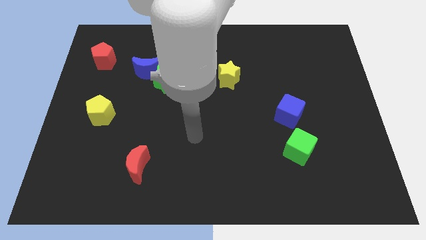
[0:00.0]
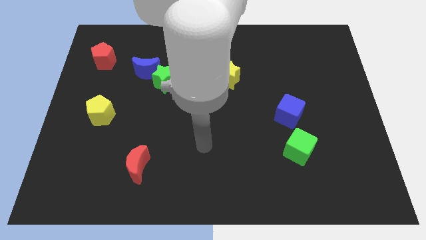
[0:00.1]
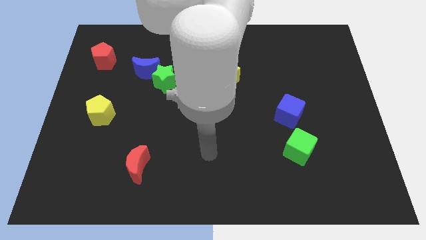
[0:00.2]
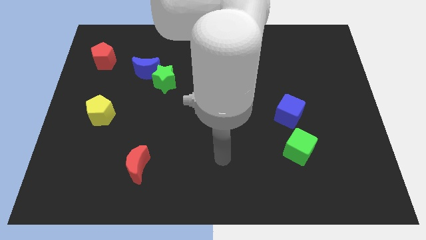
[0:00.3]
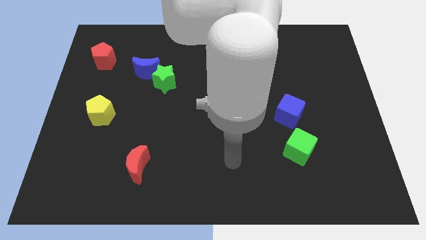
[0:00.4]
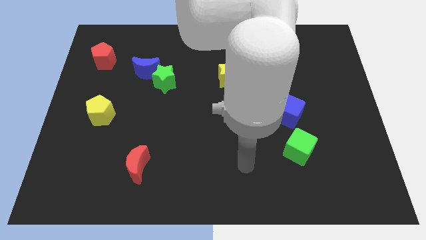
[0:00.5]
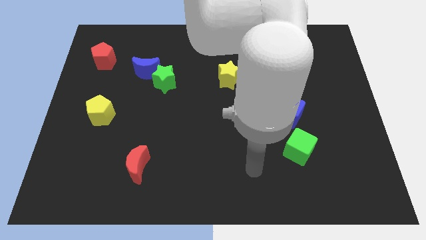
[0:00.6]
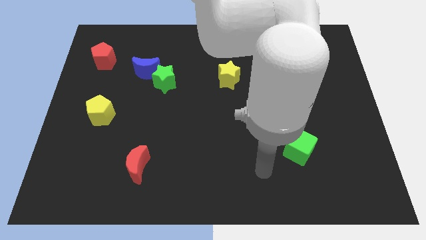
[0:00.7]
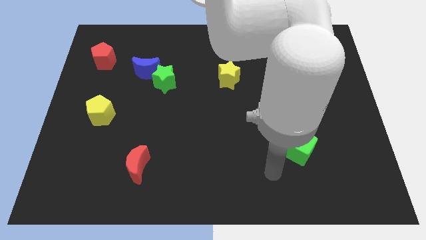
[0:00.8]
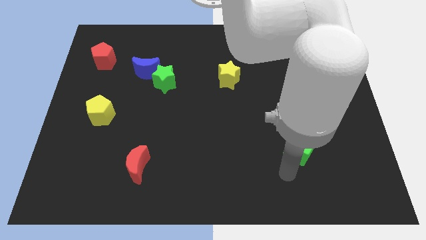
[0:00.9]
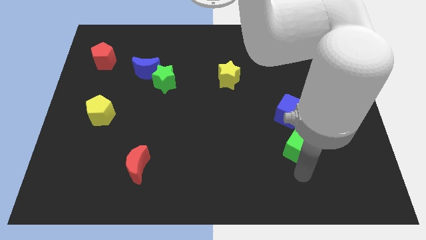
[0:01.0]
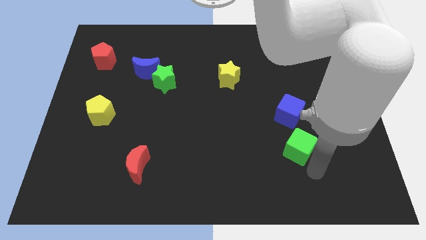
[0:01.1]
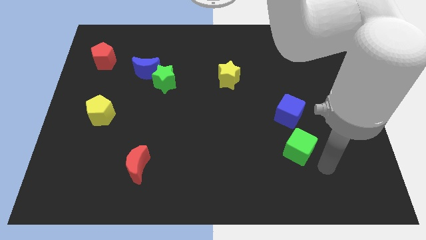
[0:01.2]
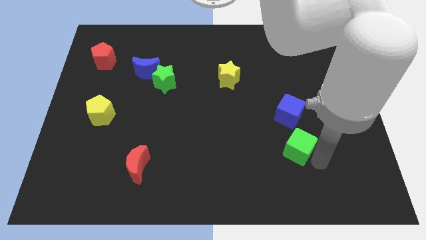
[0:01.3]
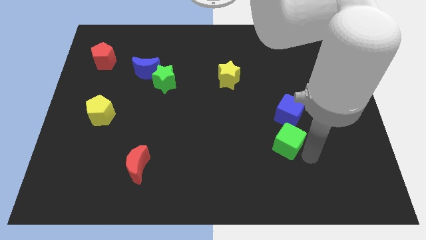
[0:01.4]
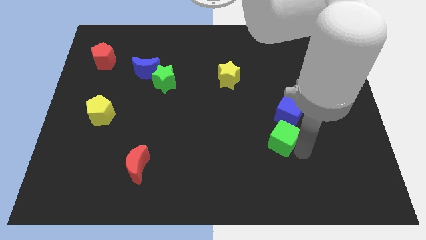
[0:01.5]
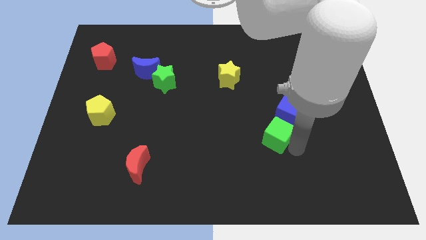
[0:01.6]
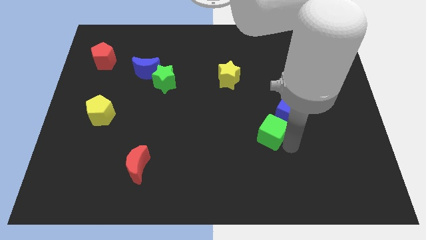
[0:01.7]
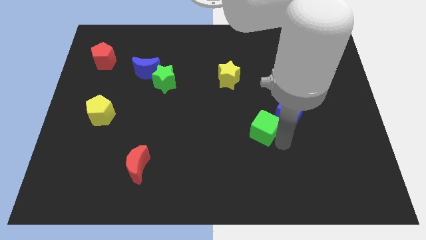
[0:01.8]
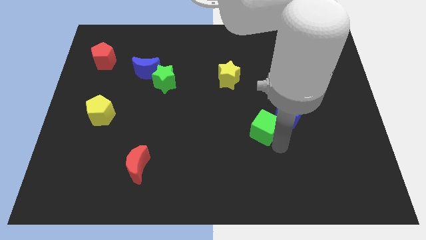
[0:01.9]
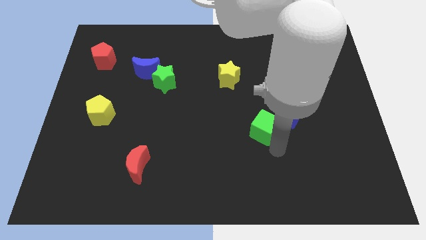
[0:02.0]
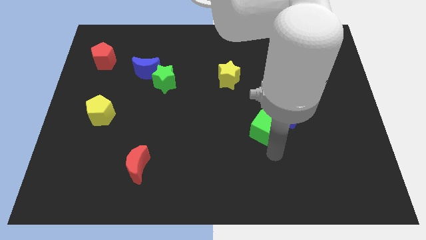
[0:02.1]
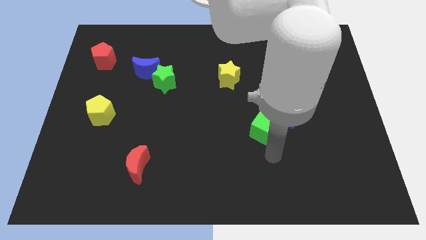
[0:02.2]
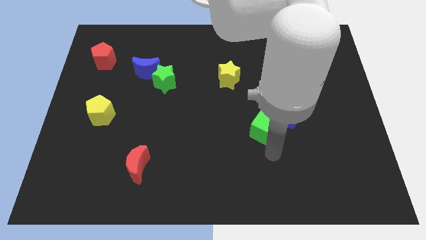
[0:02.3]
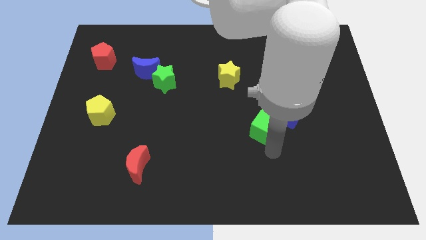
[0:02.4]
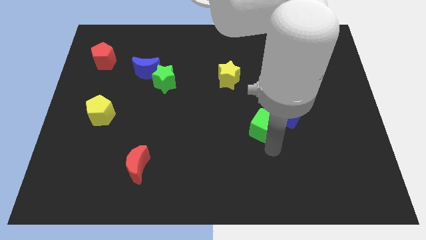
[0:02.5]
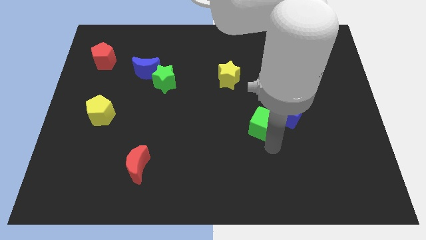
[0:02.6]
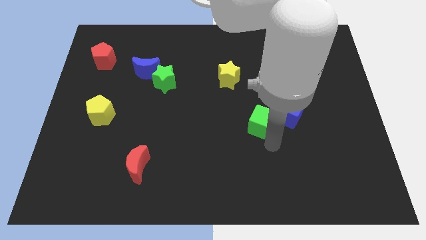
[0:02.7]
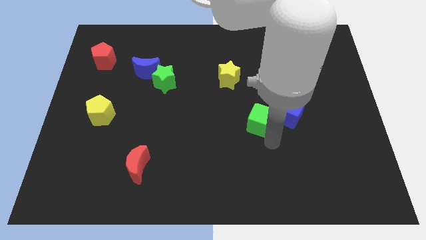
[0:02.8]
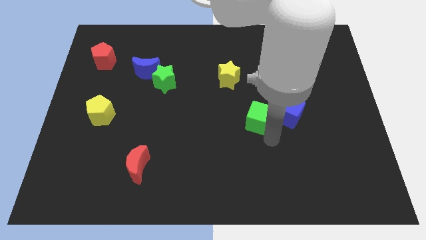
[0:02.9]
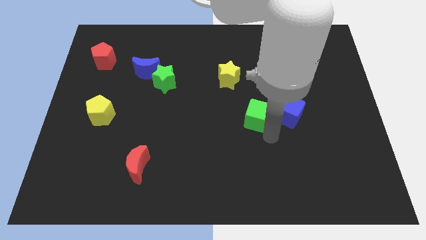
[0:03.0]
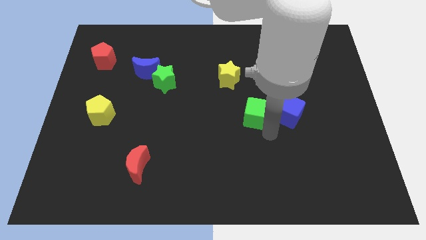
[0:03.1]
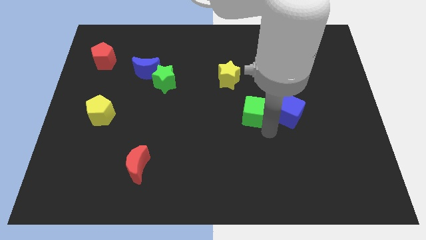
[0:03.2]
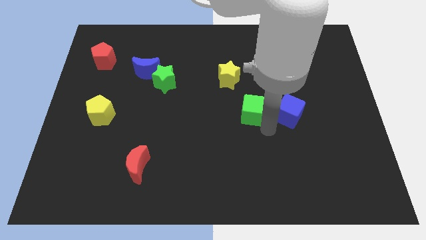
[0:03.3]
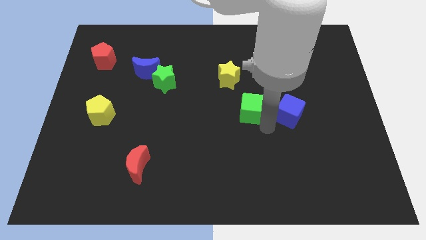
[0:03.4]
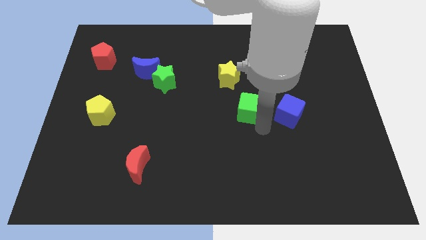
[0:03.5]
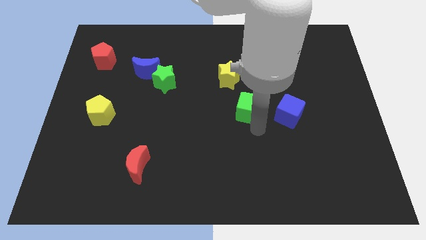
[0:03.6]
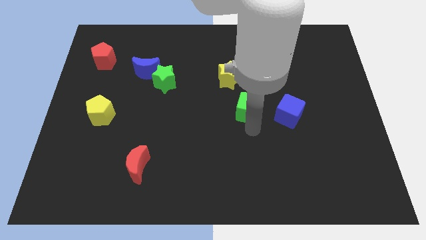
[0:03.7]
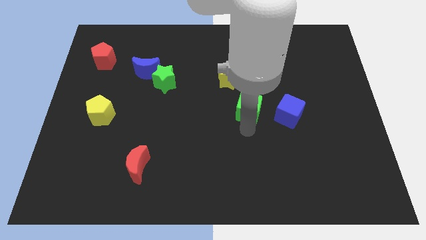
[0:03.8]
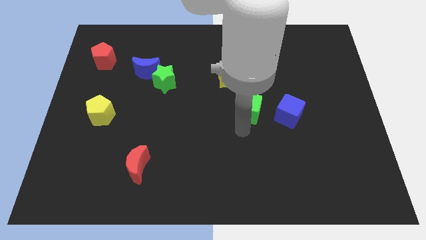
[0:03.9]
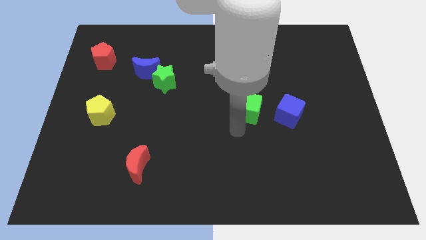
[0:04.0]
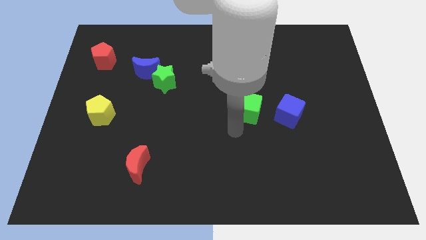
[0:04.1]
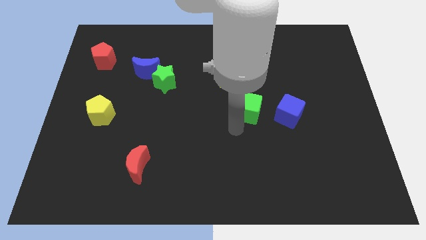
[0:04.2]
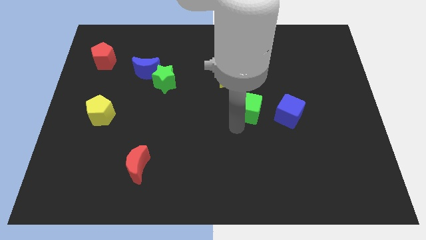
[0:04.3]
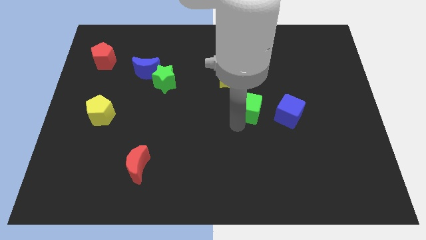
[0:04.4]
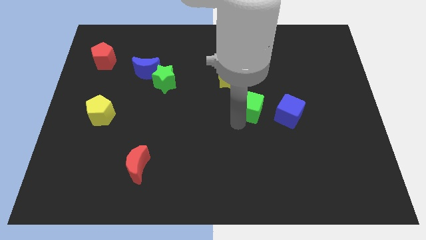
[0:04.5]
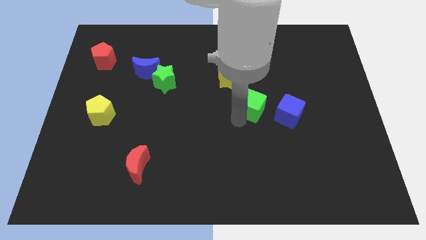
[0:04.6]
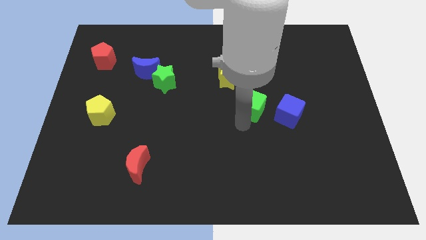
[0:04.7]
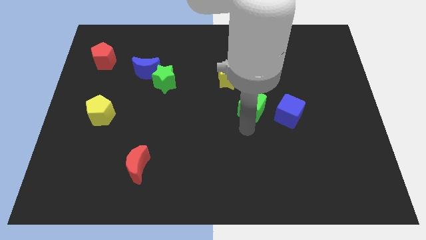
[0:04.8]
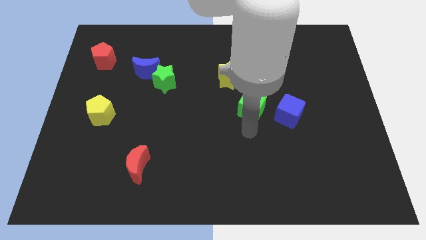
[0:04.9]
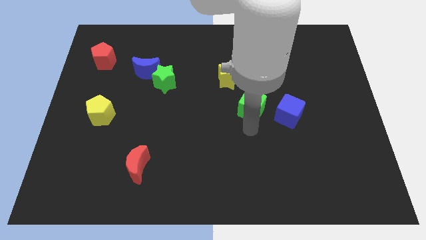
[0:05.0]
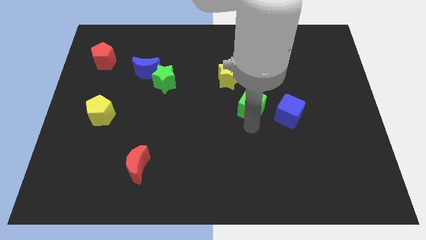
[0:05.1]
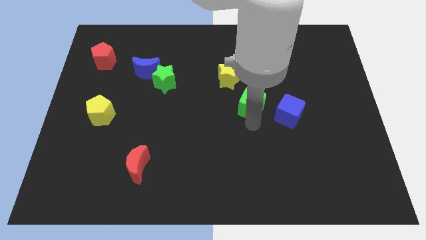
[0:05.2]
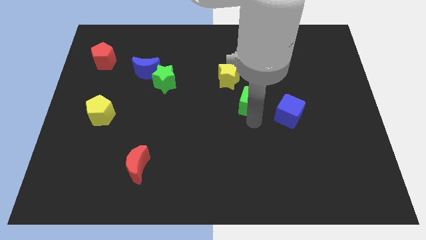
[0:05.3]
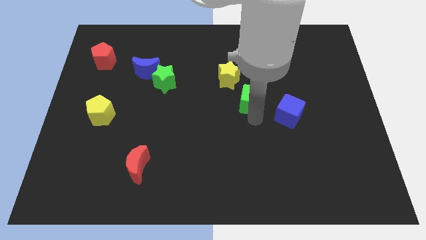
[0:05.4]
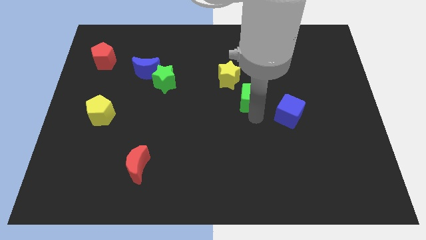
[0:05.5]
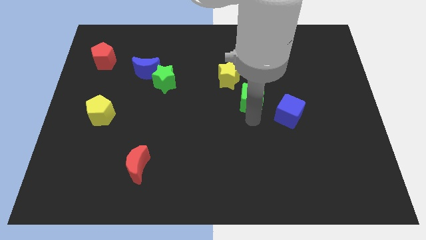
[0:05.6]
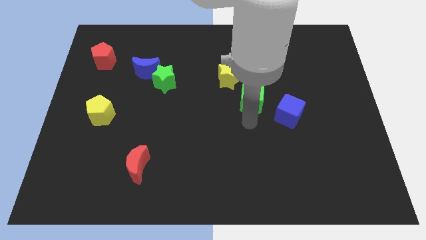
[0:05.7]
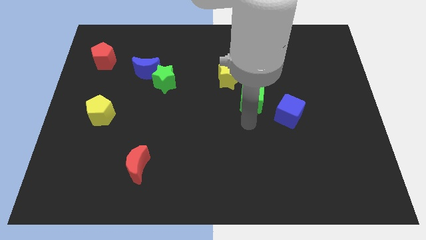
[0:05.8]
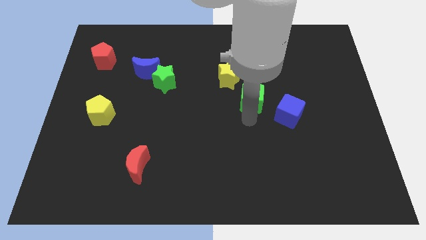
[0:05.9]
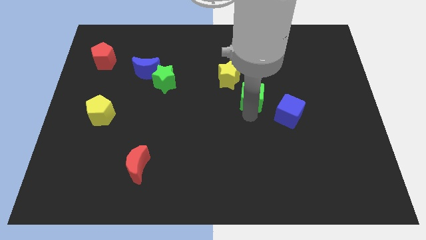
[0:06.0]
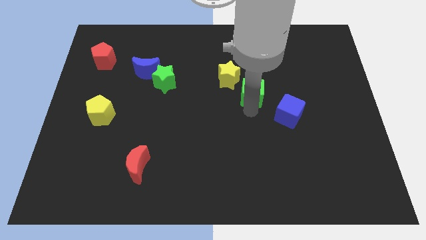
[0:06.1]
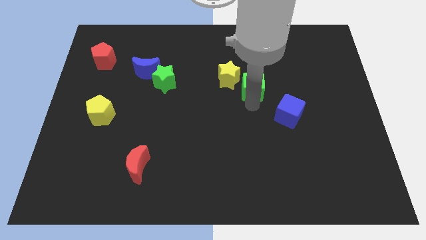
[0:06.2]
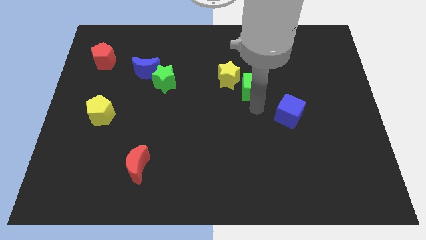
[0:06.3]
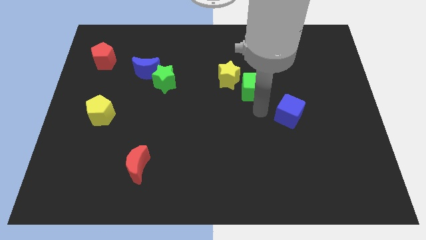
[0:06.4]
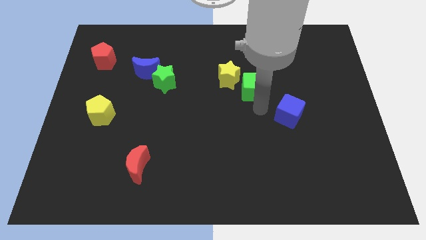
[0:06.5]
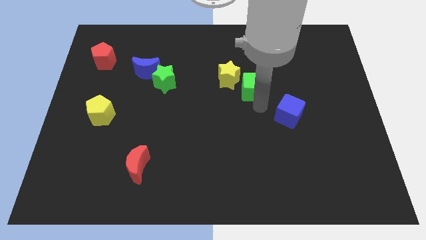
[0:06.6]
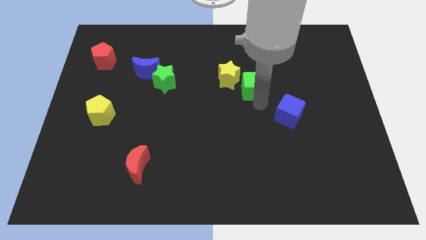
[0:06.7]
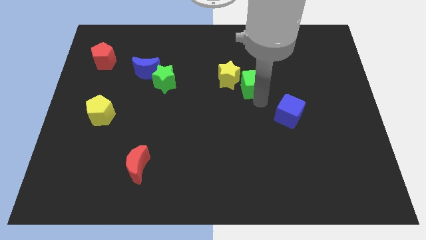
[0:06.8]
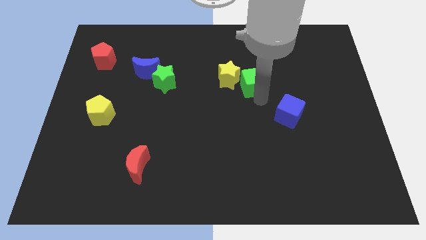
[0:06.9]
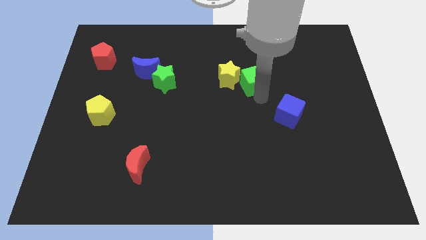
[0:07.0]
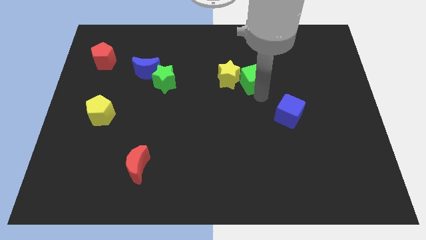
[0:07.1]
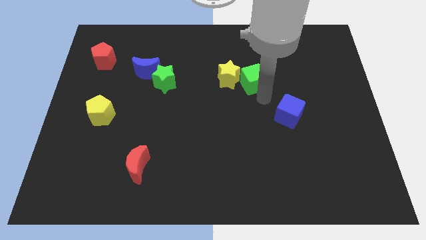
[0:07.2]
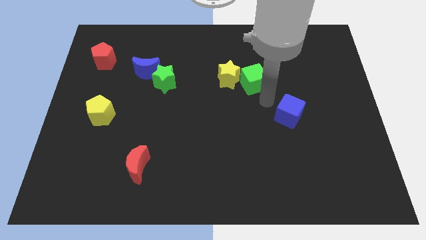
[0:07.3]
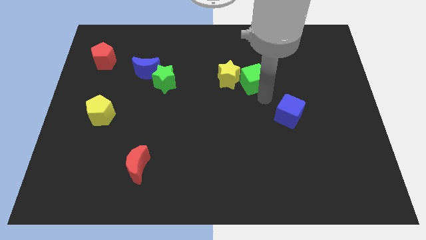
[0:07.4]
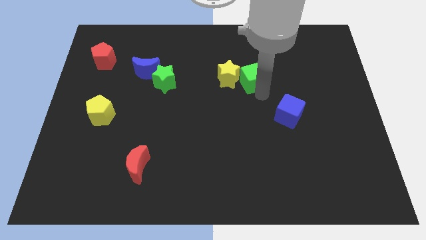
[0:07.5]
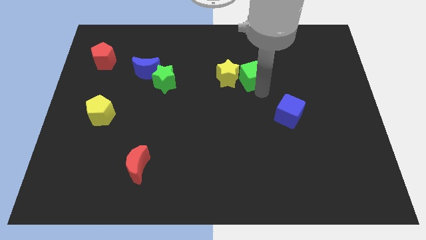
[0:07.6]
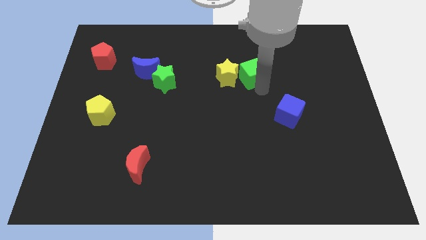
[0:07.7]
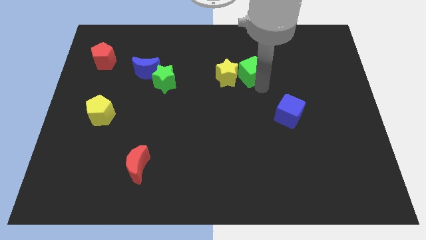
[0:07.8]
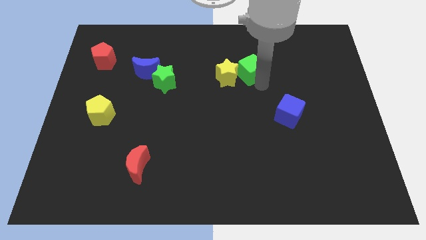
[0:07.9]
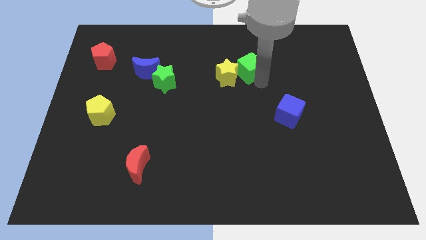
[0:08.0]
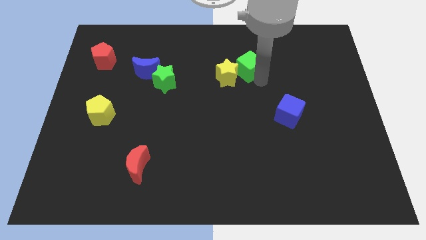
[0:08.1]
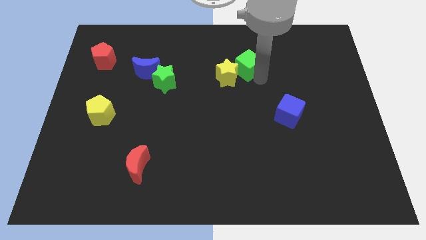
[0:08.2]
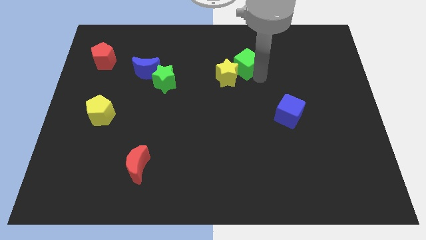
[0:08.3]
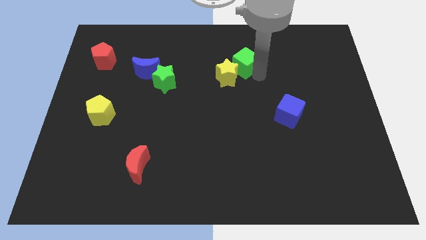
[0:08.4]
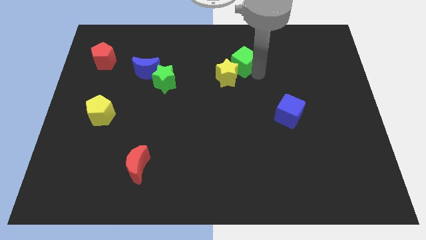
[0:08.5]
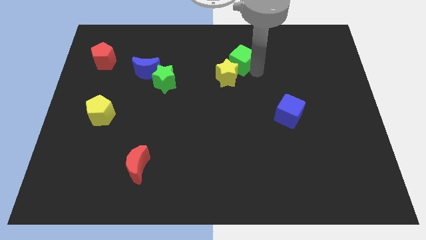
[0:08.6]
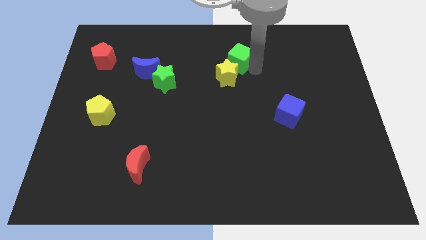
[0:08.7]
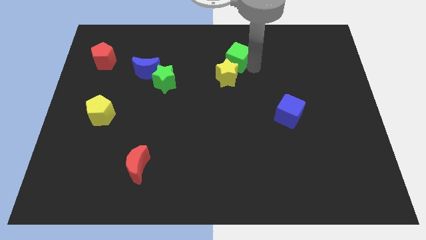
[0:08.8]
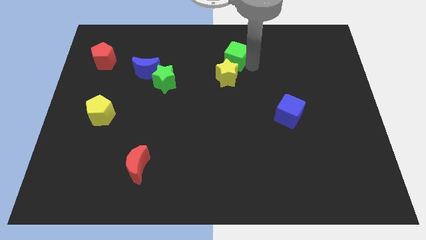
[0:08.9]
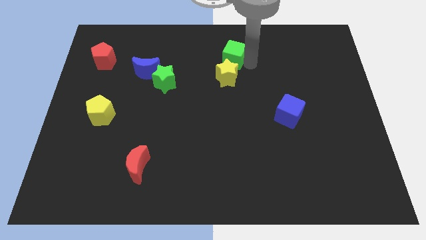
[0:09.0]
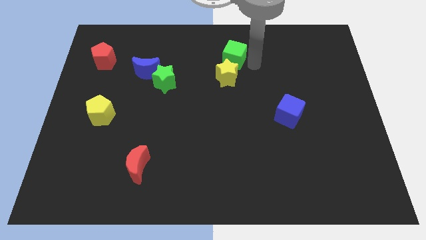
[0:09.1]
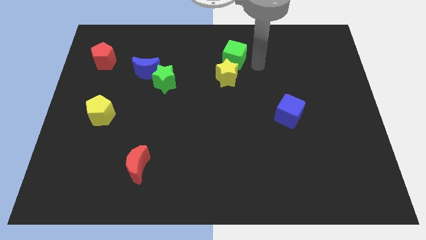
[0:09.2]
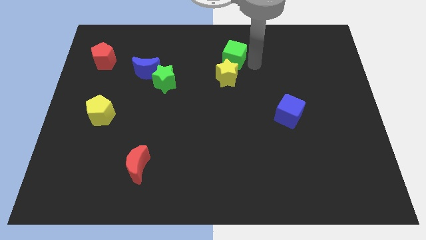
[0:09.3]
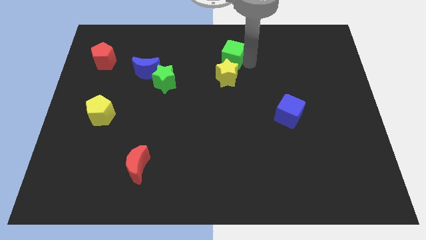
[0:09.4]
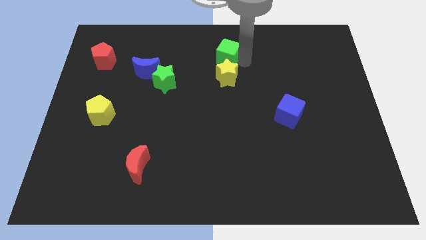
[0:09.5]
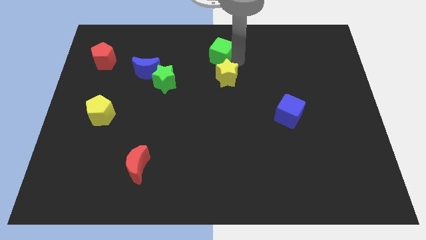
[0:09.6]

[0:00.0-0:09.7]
put the green cube to the top
